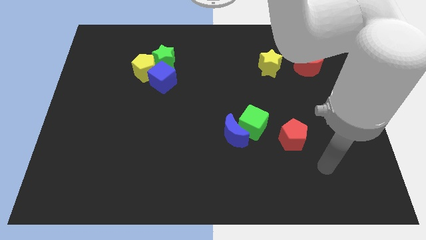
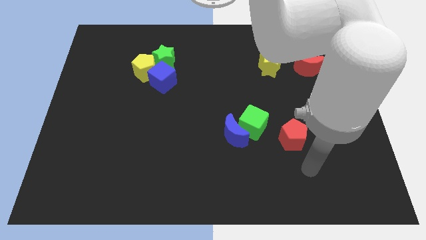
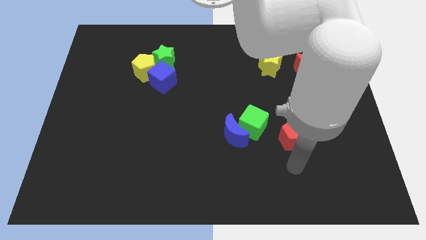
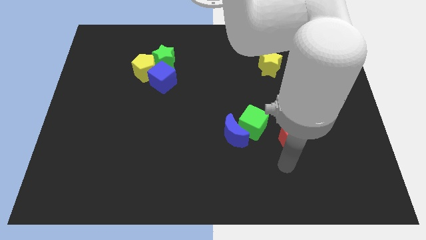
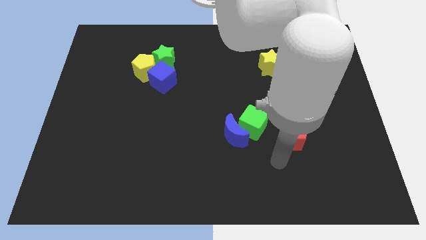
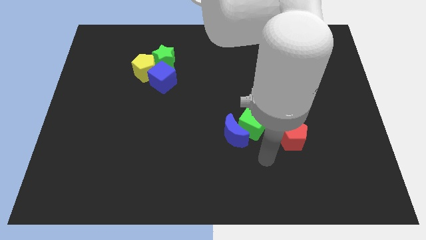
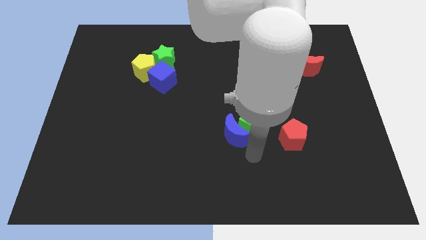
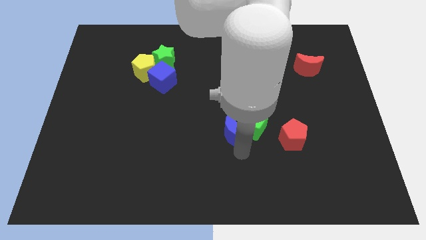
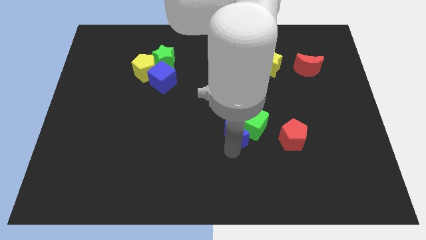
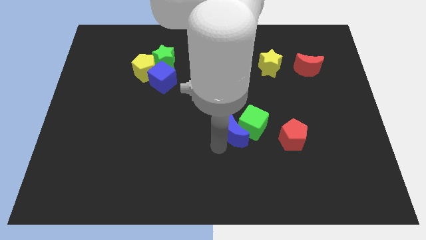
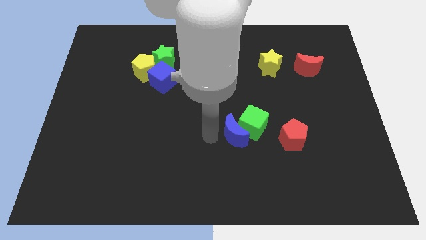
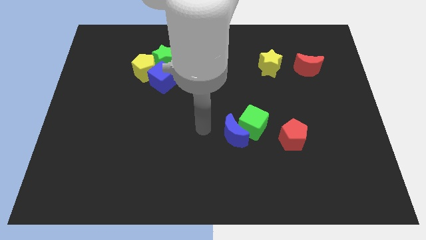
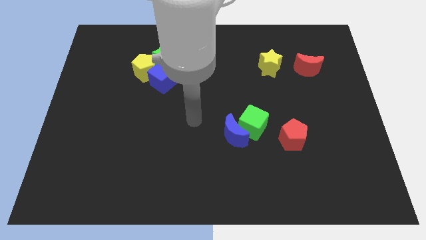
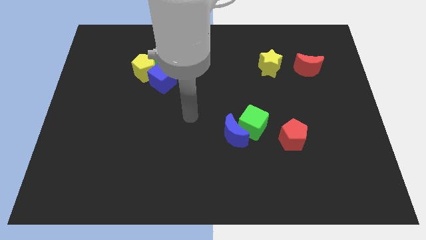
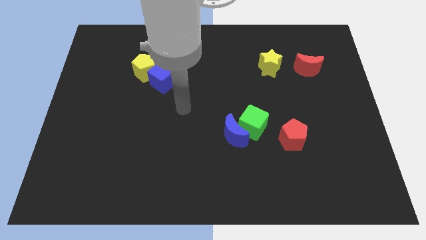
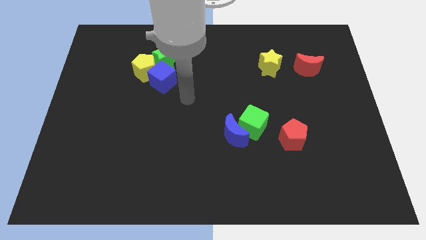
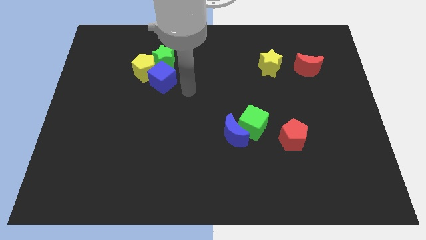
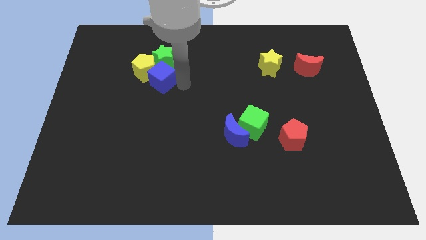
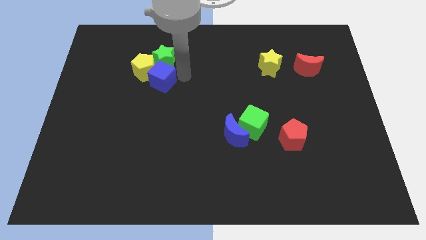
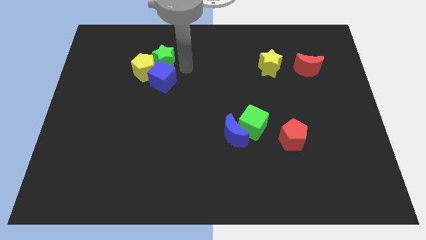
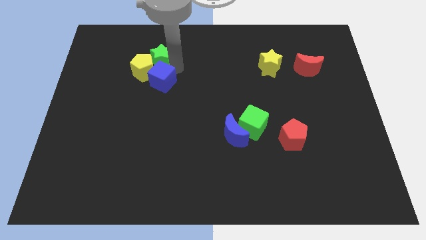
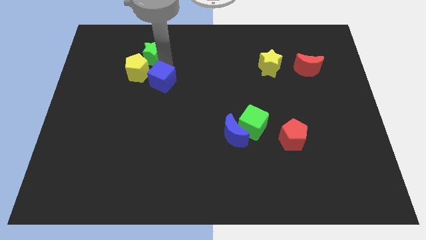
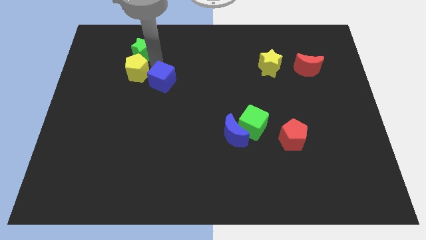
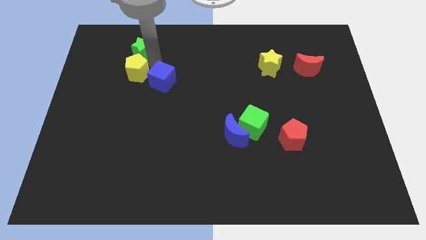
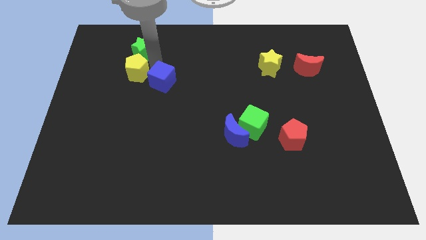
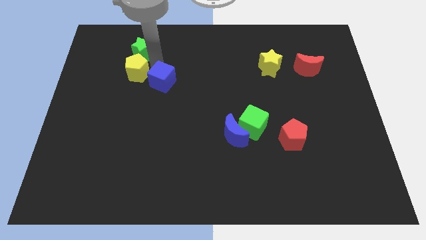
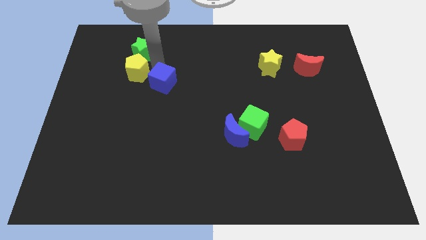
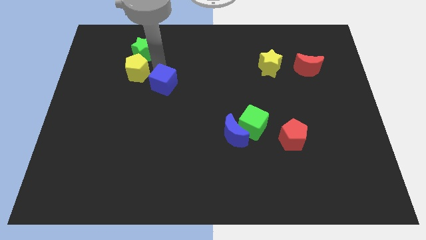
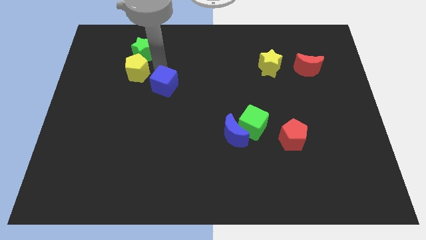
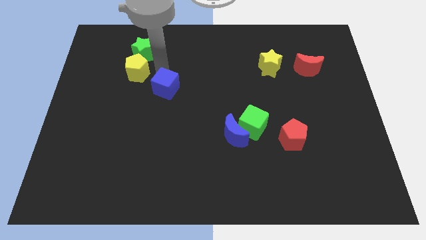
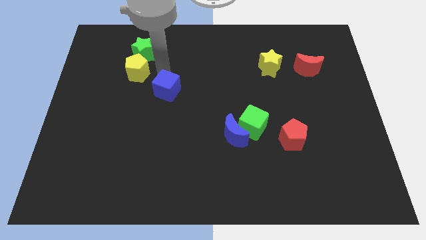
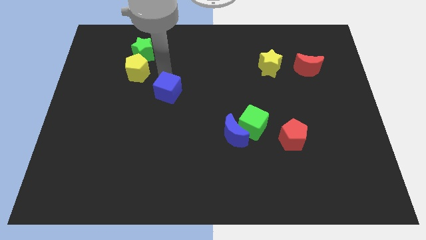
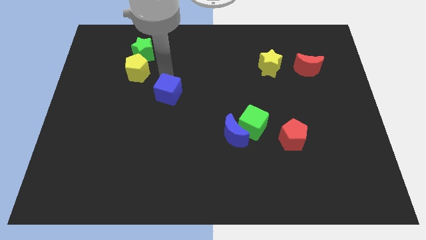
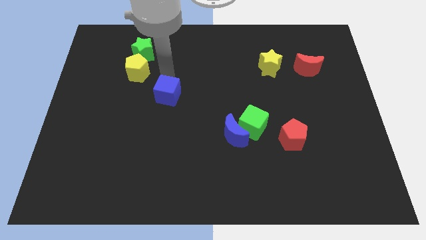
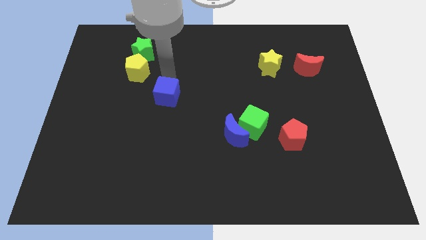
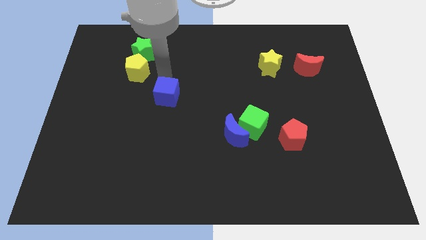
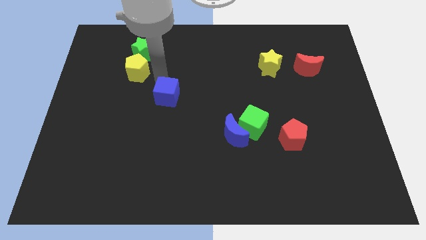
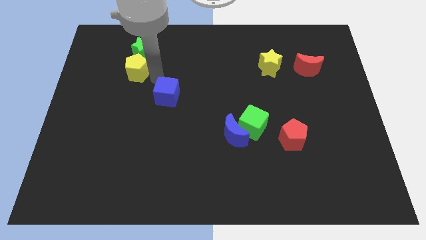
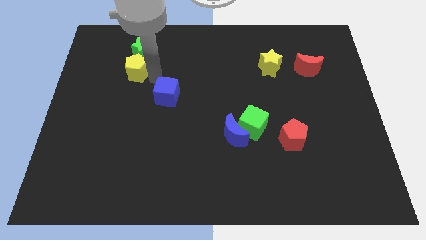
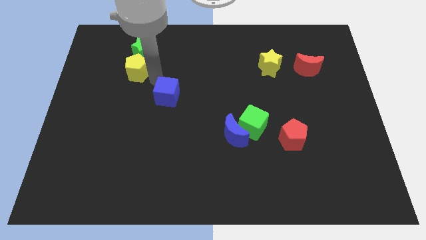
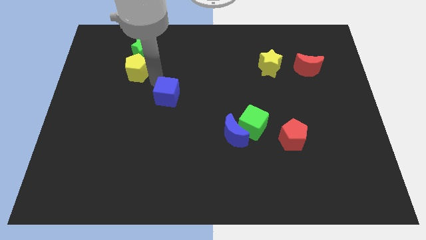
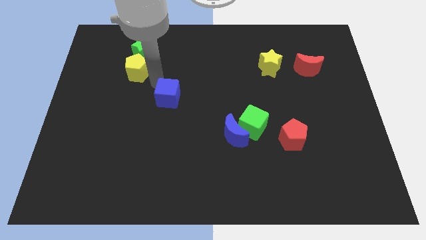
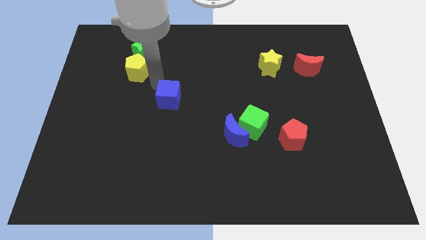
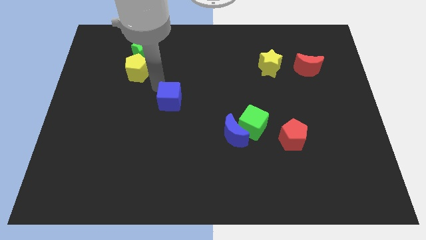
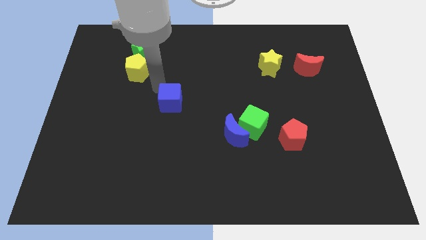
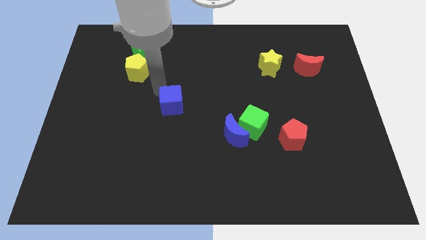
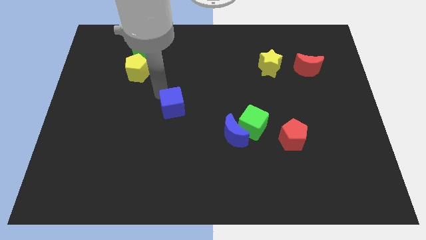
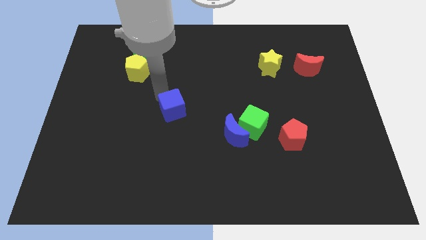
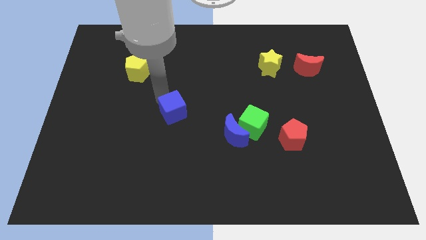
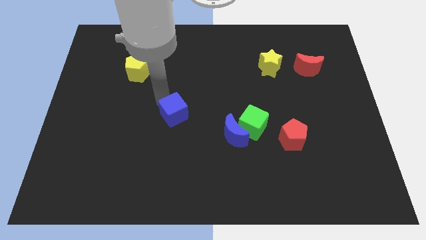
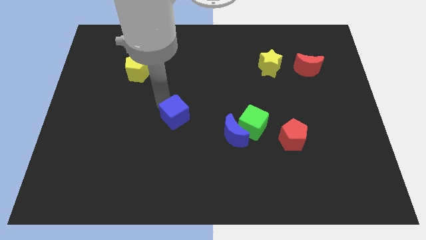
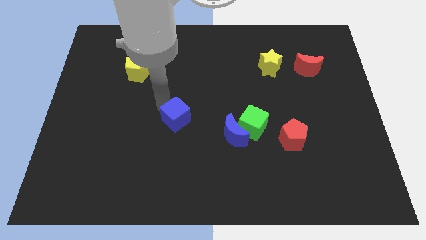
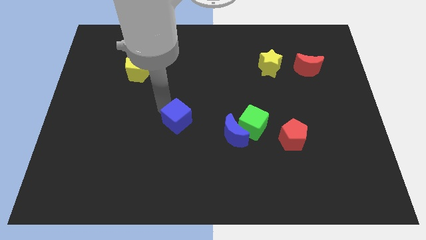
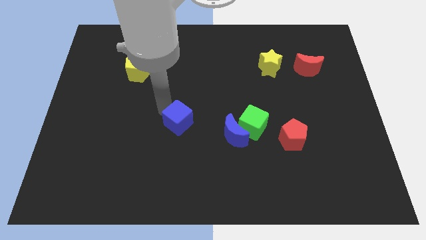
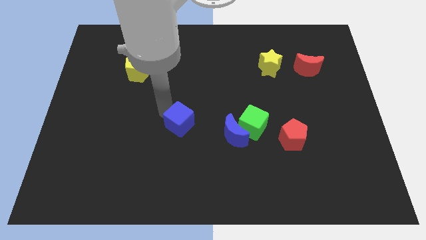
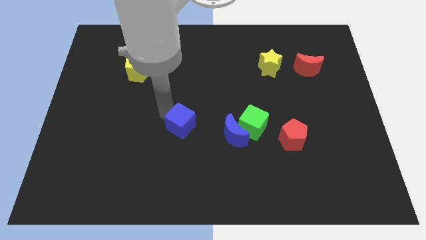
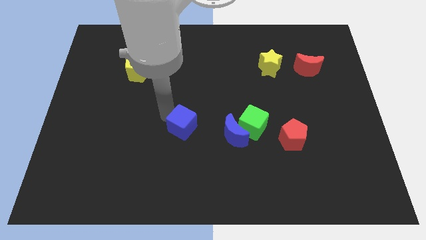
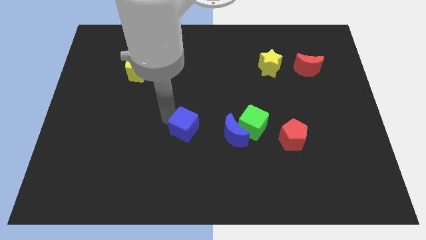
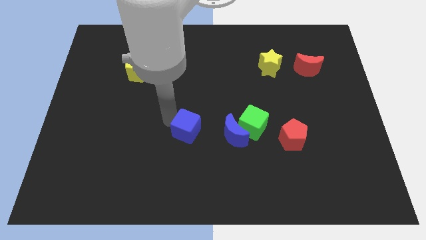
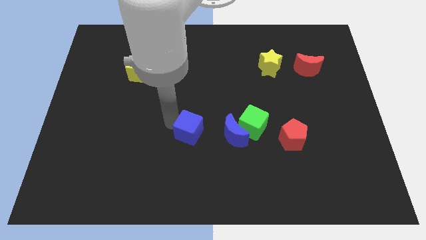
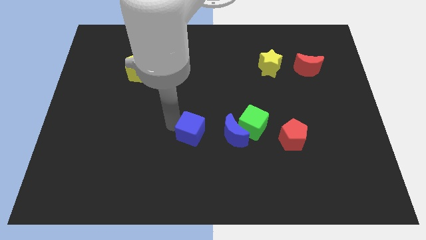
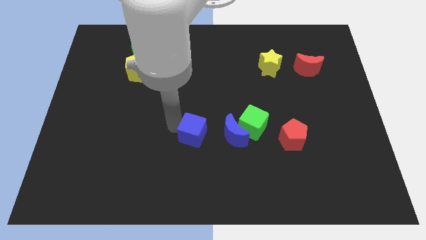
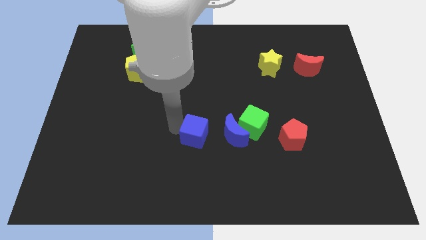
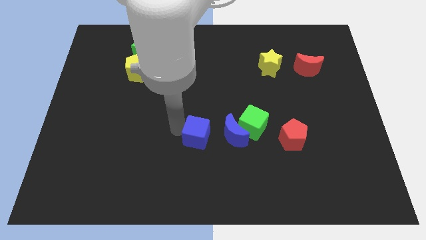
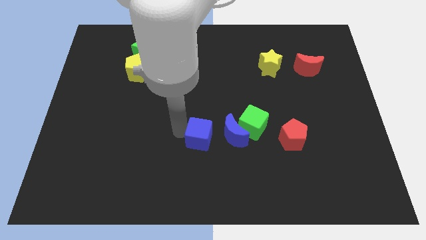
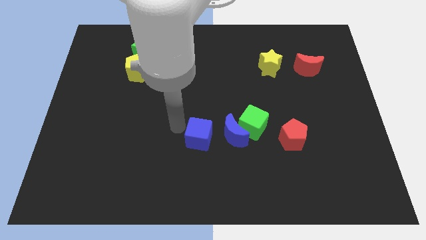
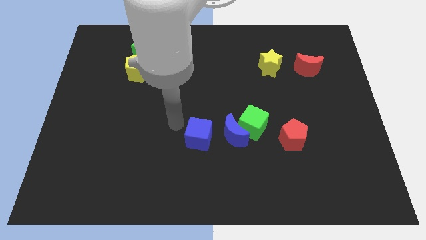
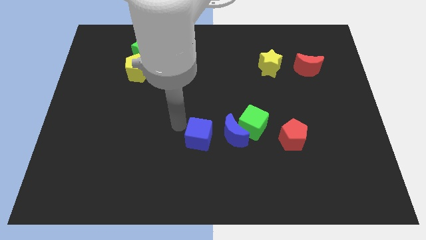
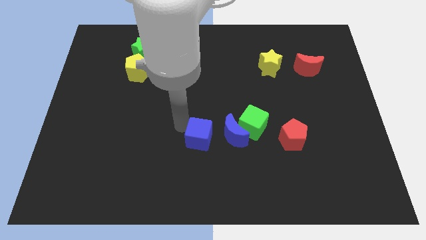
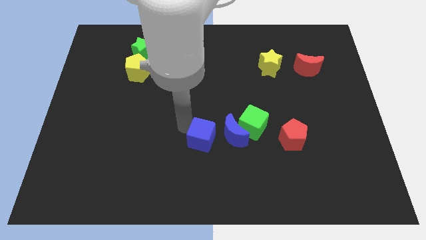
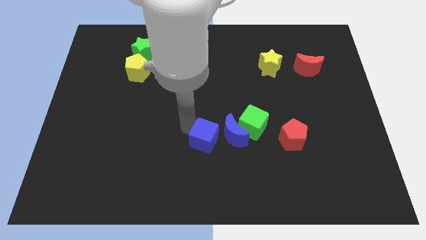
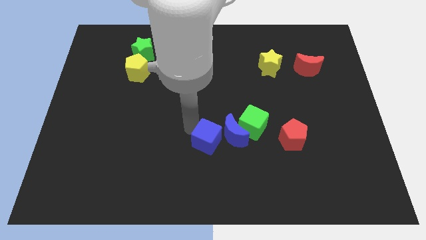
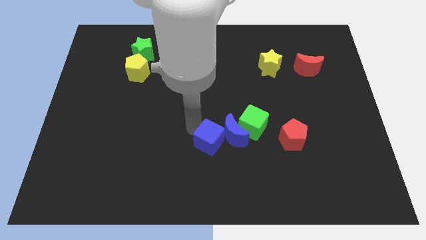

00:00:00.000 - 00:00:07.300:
slide the blue cube down and right diagonally

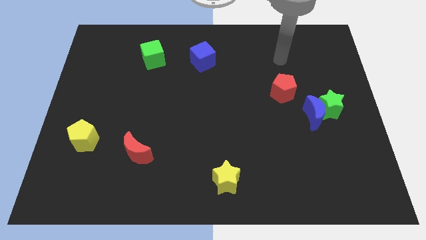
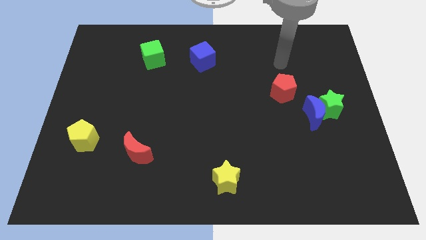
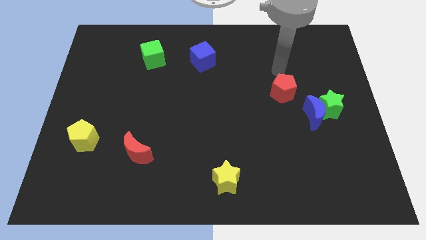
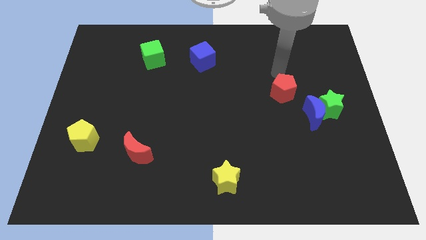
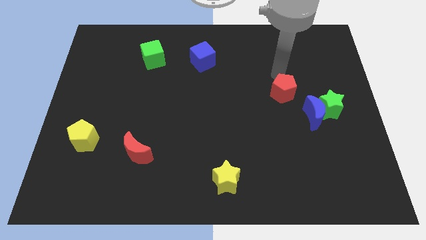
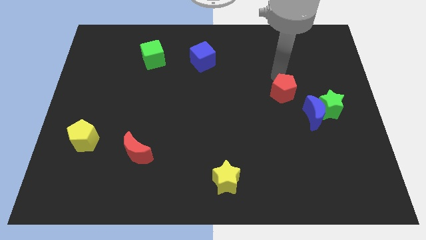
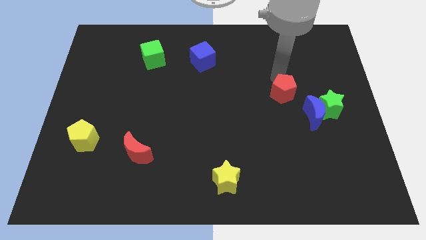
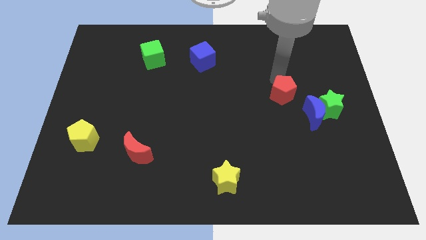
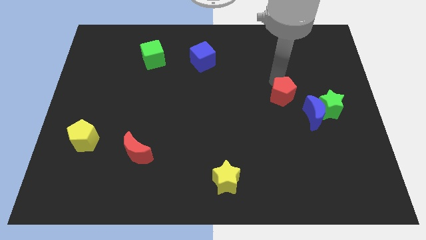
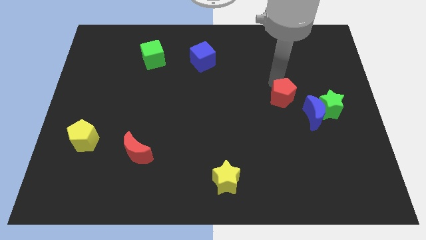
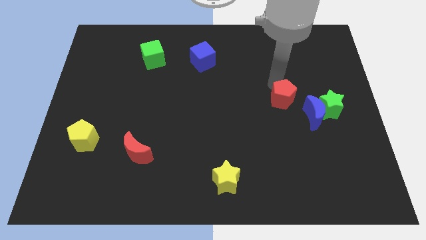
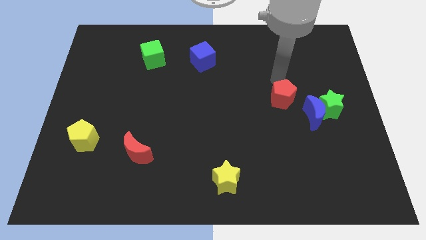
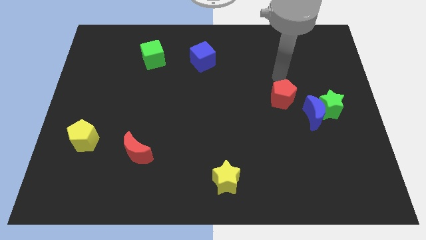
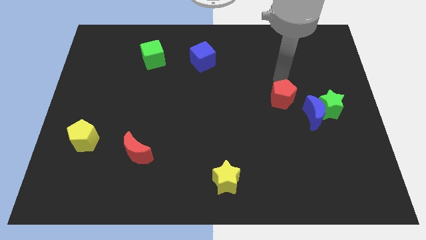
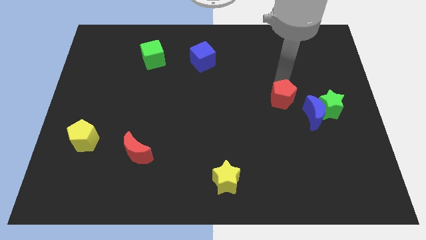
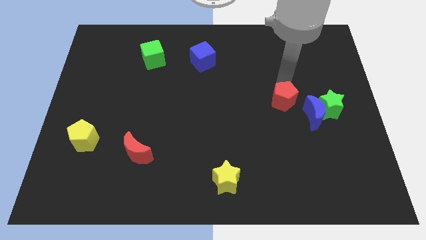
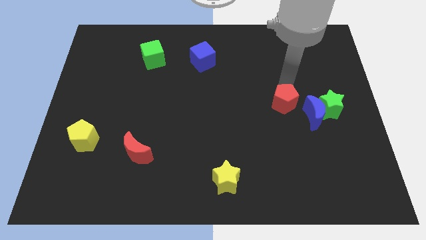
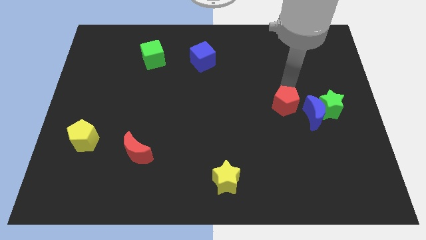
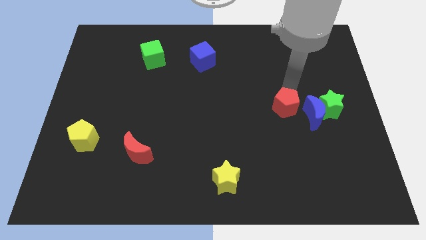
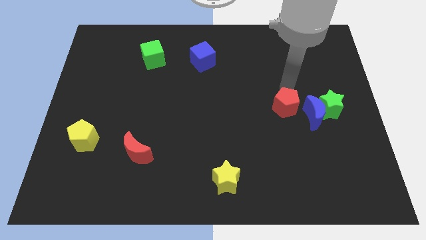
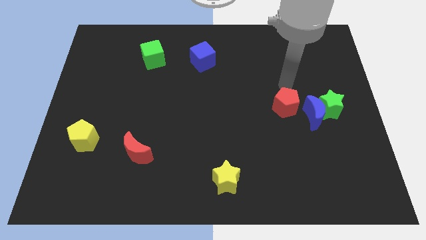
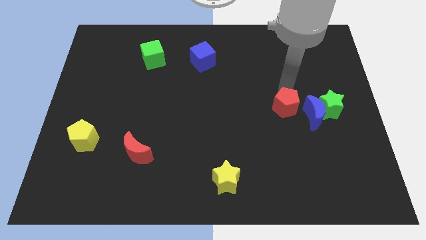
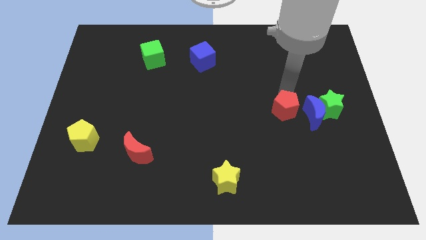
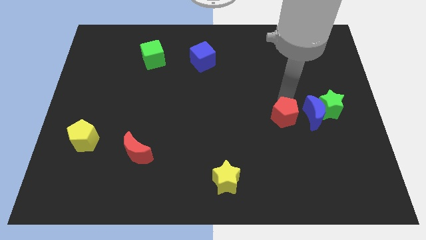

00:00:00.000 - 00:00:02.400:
slightly slide the red pentagon downwards
